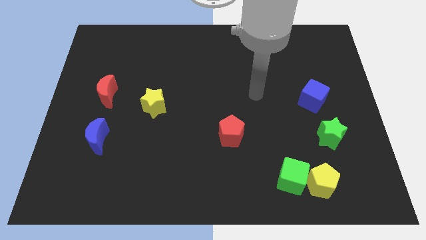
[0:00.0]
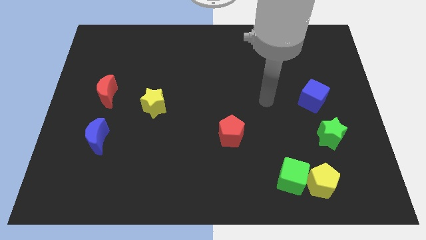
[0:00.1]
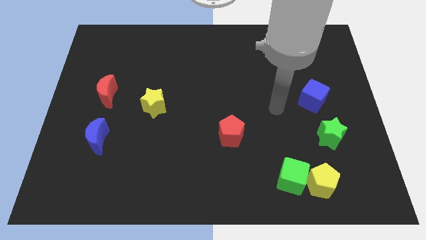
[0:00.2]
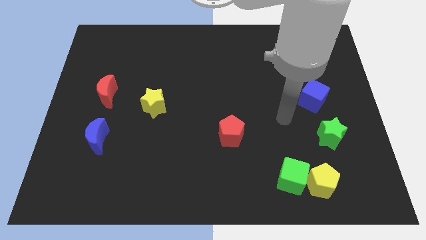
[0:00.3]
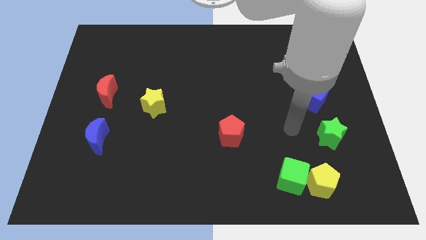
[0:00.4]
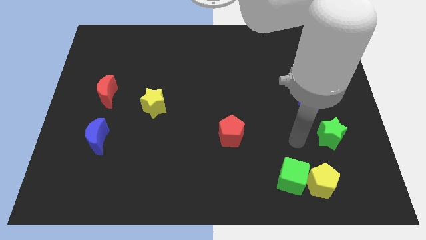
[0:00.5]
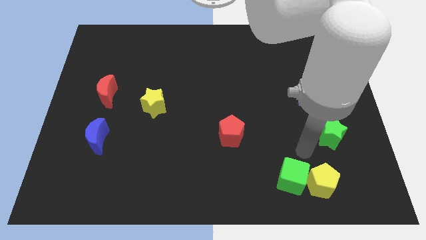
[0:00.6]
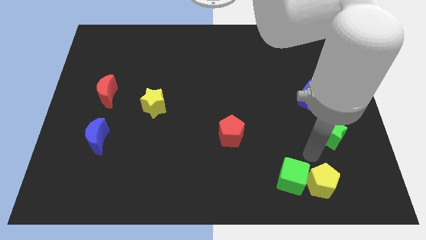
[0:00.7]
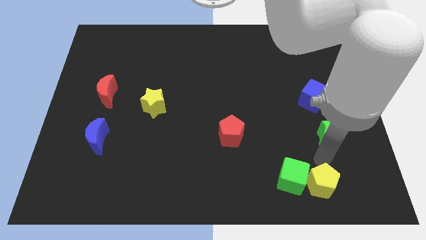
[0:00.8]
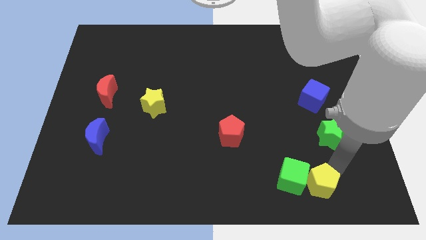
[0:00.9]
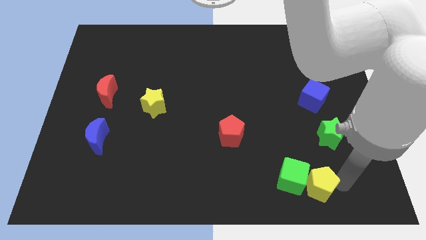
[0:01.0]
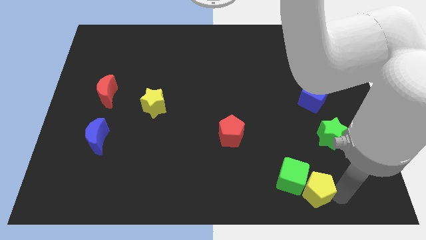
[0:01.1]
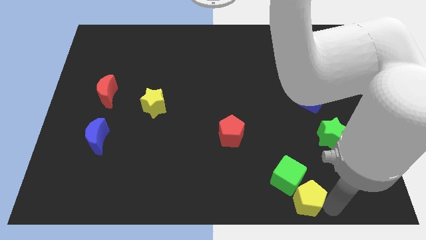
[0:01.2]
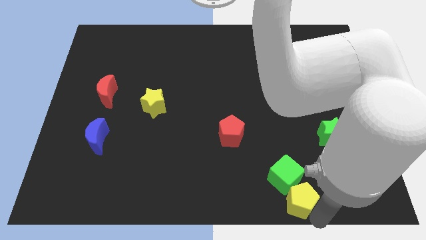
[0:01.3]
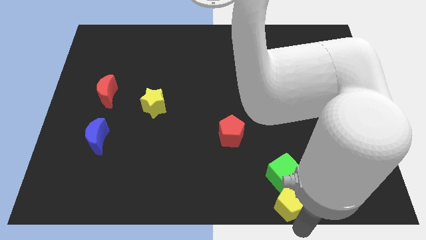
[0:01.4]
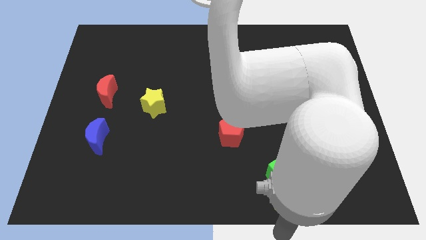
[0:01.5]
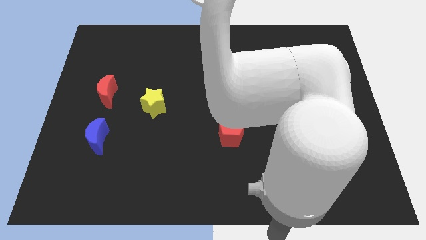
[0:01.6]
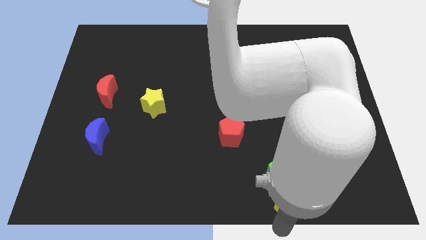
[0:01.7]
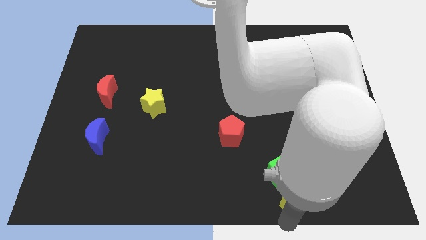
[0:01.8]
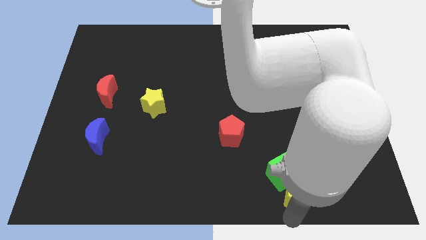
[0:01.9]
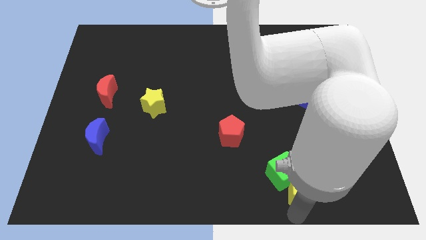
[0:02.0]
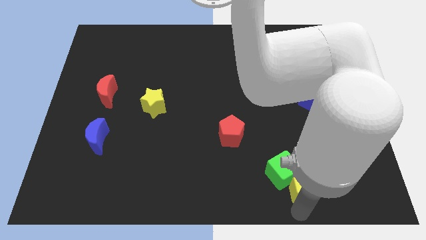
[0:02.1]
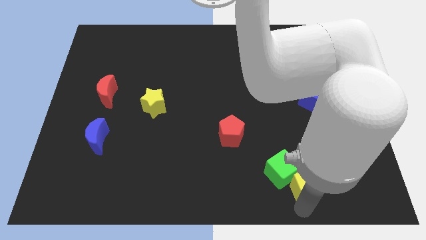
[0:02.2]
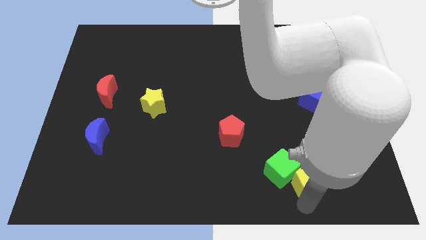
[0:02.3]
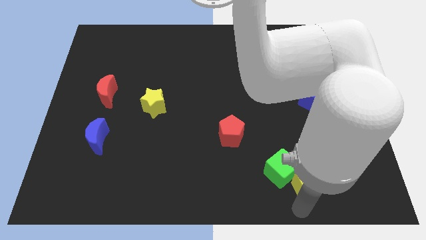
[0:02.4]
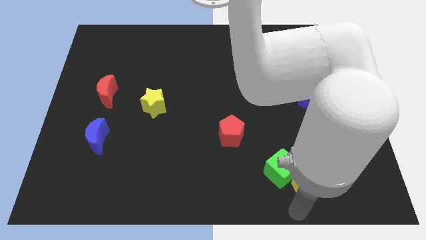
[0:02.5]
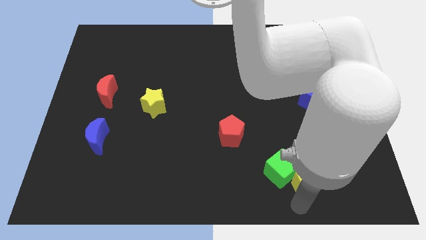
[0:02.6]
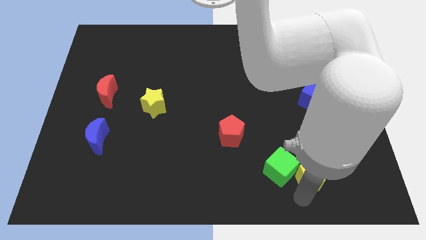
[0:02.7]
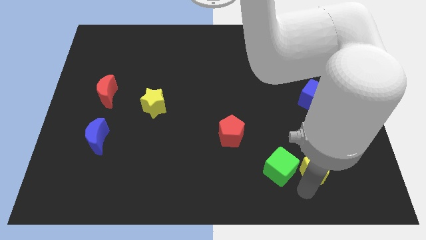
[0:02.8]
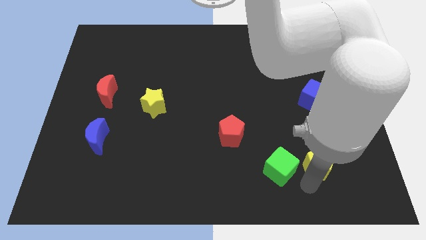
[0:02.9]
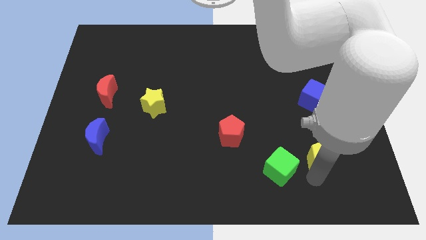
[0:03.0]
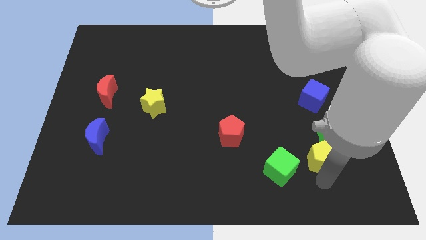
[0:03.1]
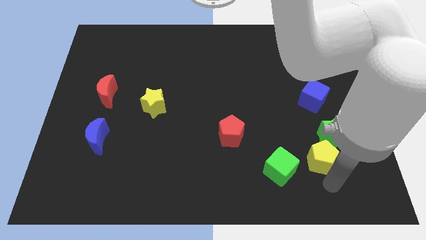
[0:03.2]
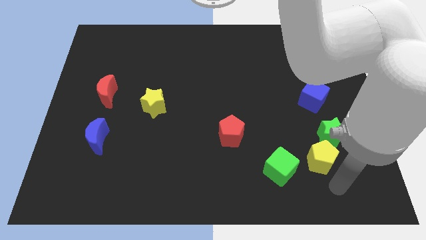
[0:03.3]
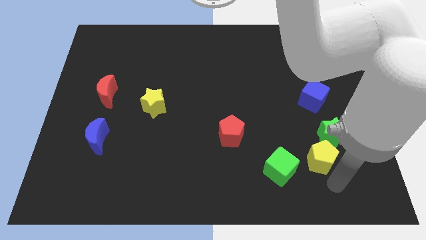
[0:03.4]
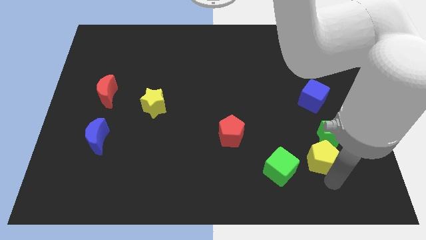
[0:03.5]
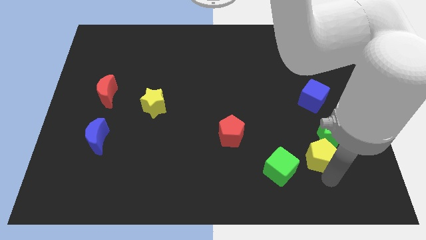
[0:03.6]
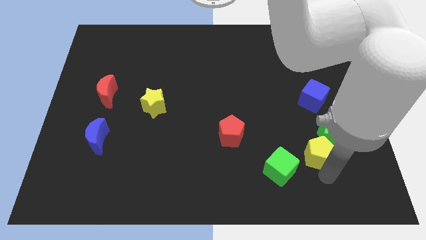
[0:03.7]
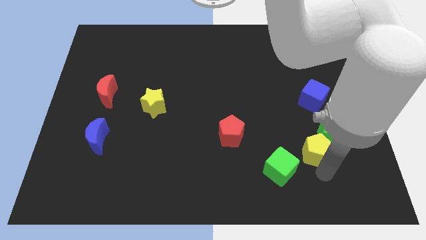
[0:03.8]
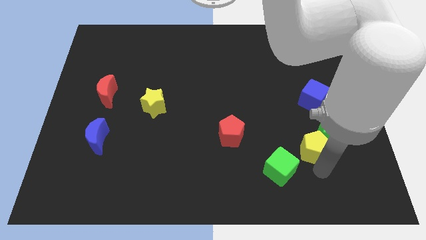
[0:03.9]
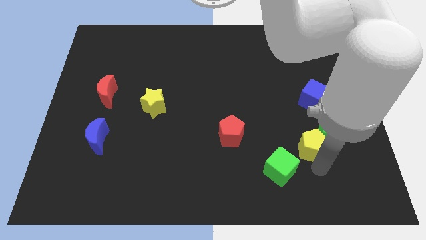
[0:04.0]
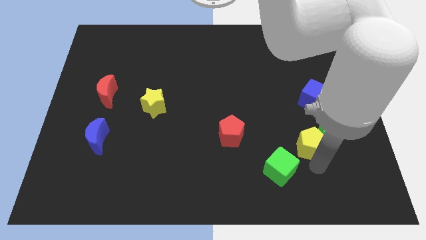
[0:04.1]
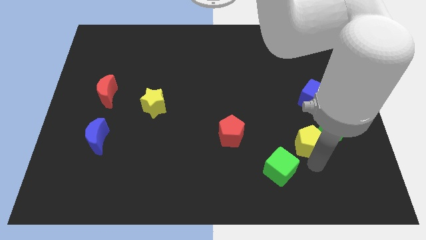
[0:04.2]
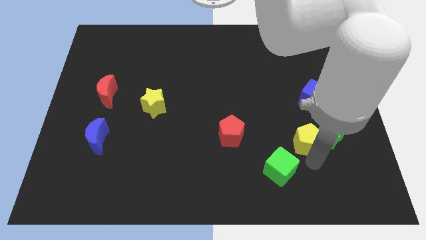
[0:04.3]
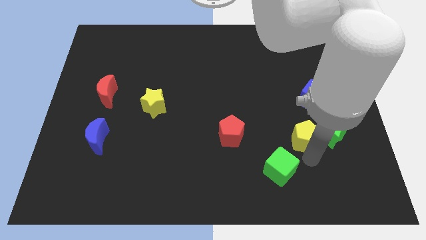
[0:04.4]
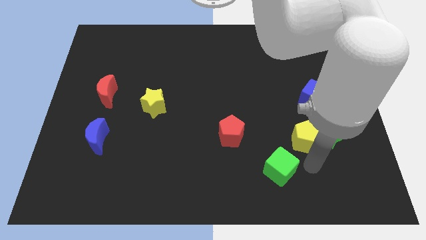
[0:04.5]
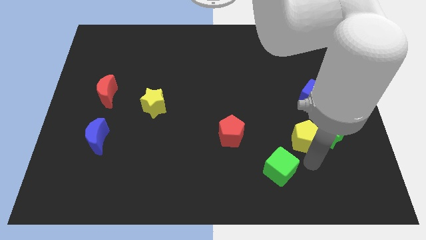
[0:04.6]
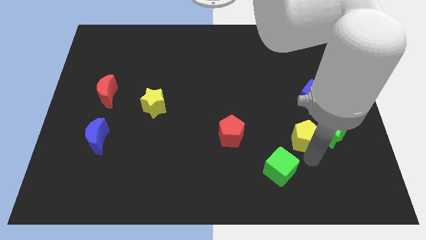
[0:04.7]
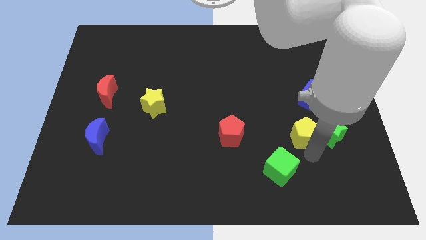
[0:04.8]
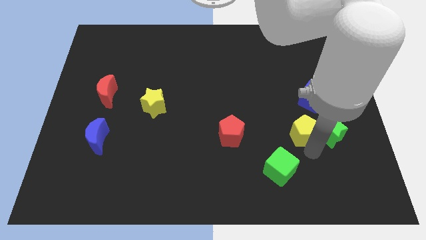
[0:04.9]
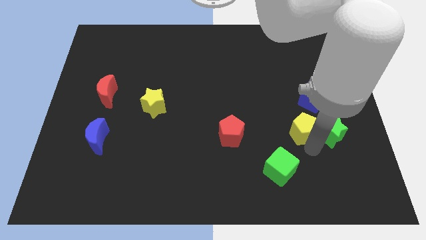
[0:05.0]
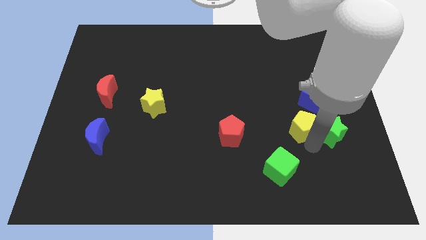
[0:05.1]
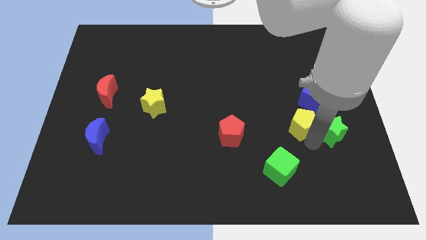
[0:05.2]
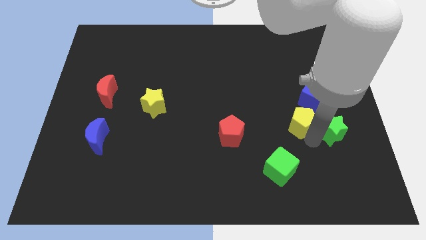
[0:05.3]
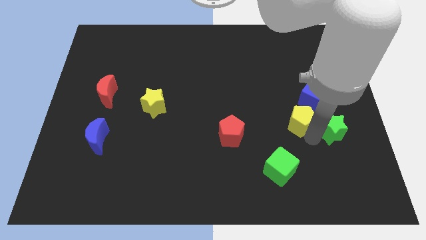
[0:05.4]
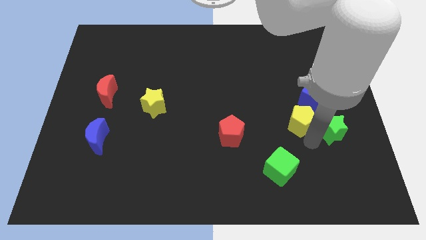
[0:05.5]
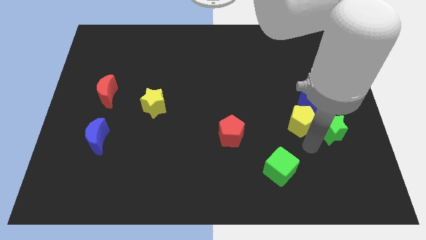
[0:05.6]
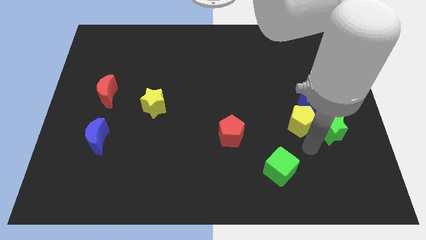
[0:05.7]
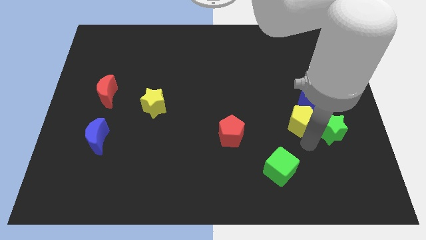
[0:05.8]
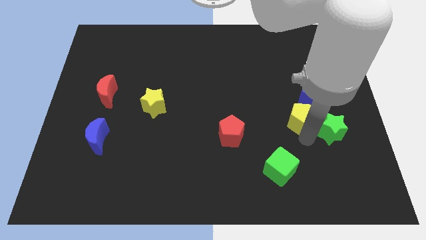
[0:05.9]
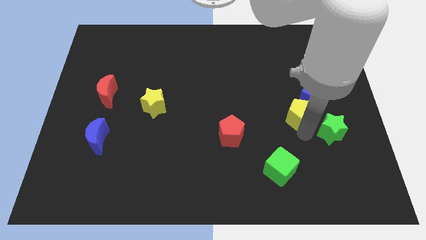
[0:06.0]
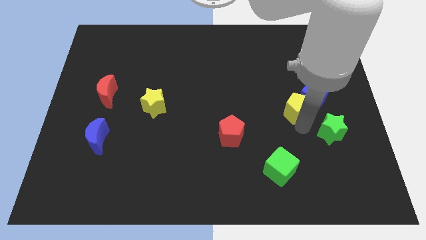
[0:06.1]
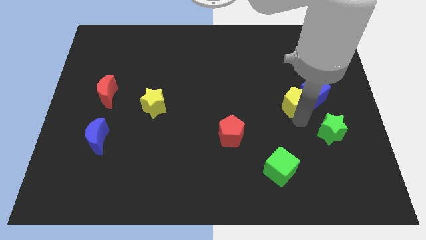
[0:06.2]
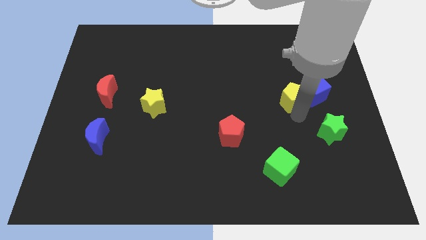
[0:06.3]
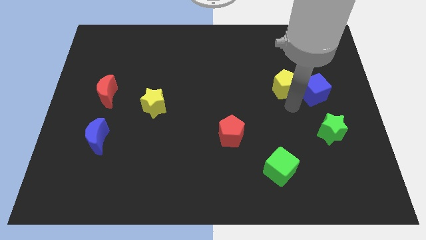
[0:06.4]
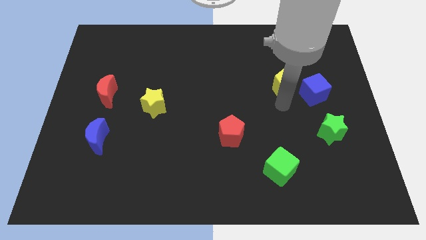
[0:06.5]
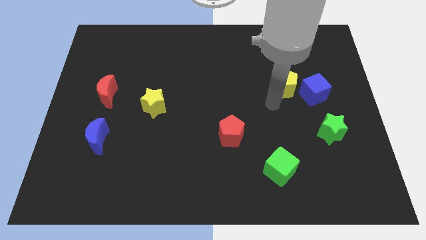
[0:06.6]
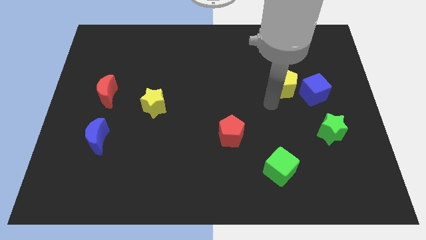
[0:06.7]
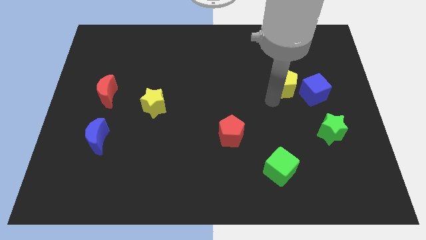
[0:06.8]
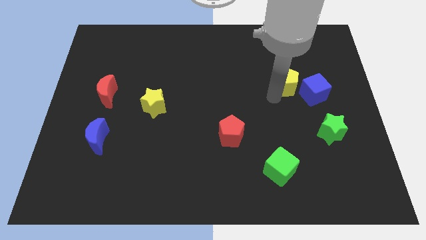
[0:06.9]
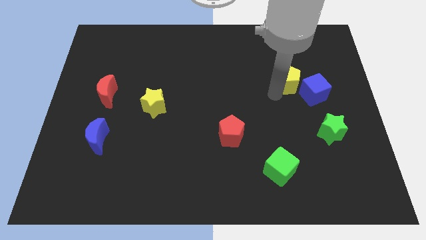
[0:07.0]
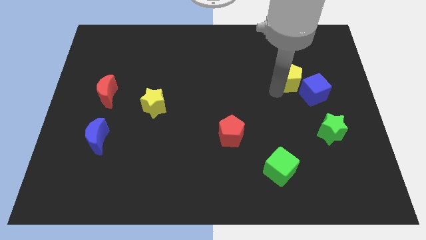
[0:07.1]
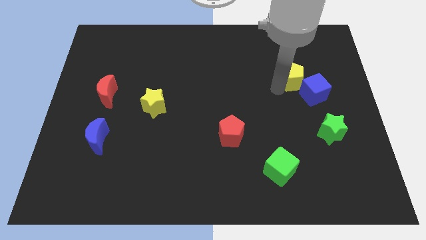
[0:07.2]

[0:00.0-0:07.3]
put the yellow pentagon above the blue cube
